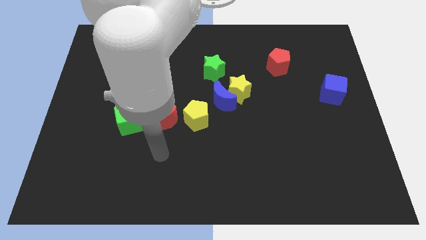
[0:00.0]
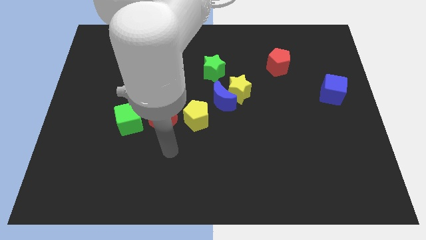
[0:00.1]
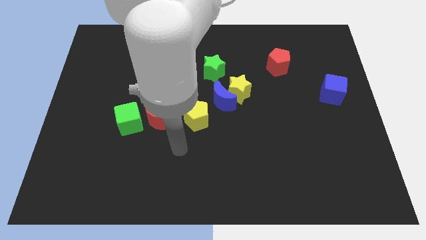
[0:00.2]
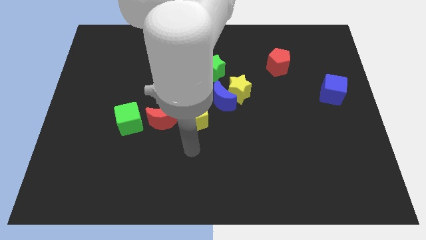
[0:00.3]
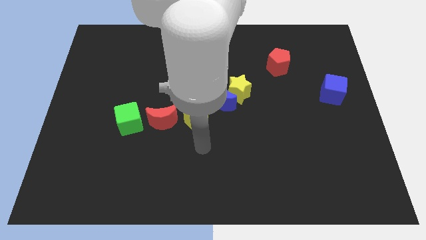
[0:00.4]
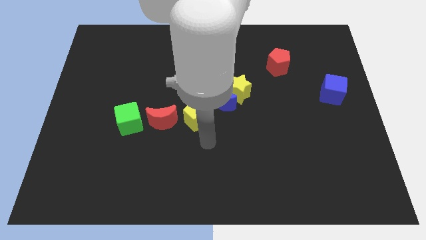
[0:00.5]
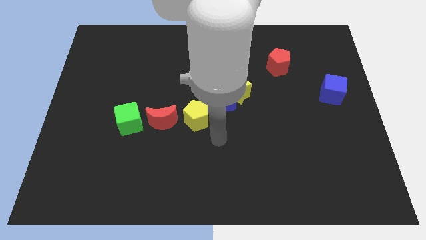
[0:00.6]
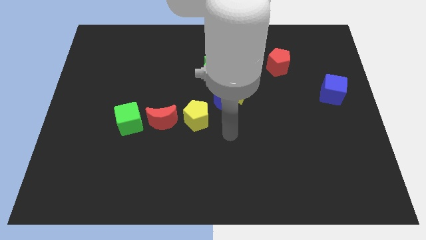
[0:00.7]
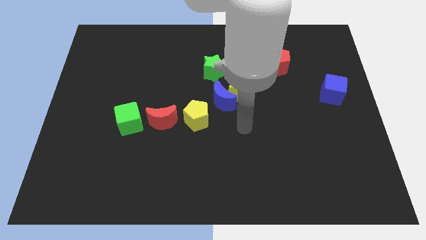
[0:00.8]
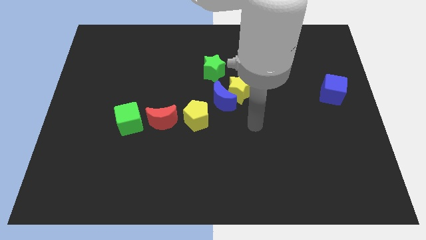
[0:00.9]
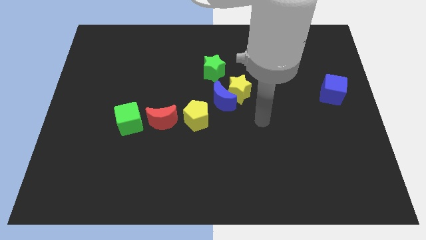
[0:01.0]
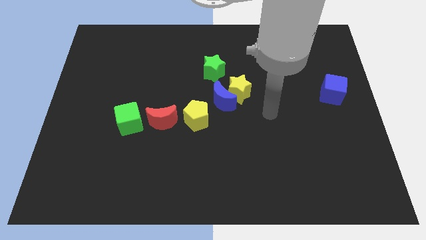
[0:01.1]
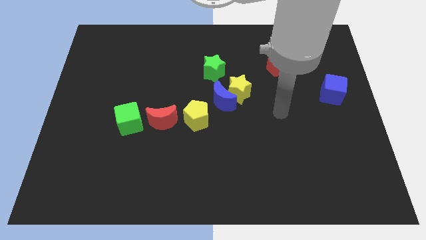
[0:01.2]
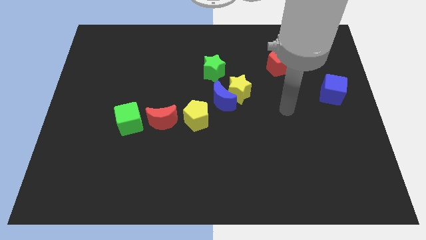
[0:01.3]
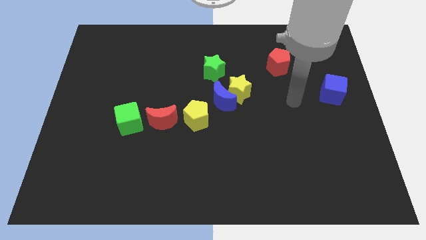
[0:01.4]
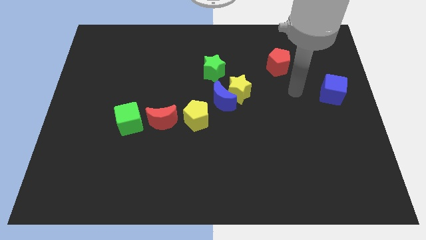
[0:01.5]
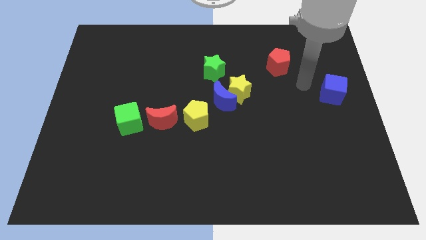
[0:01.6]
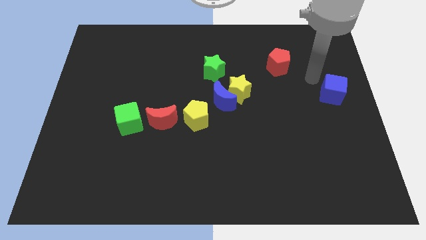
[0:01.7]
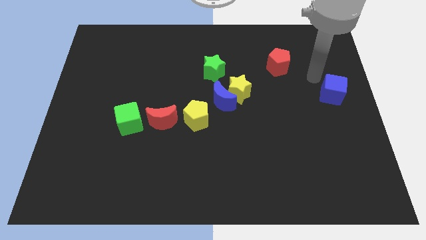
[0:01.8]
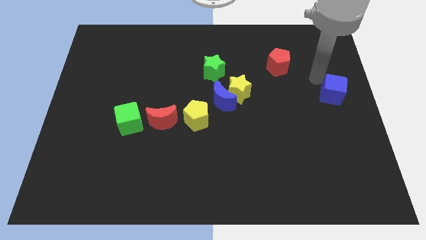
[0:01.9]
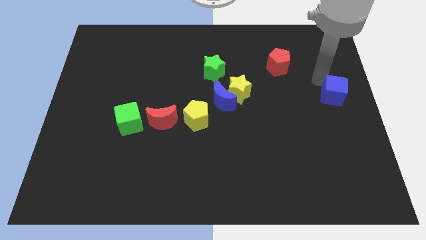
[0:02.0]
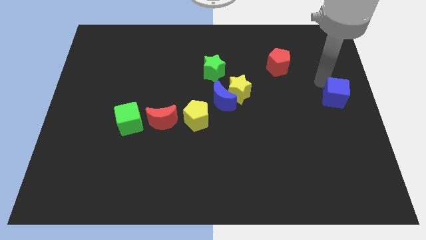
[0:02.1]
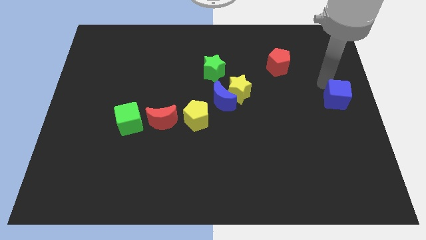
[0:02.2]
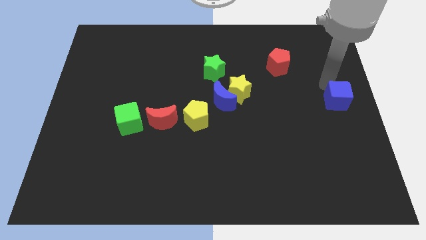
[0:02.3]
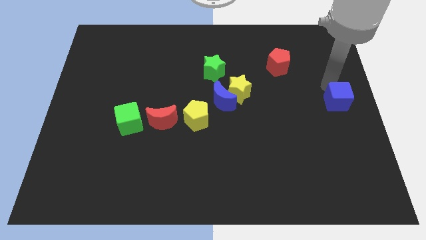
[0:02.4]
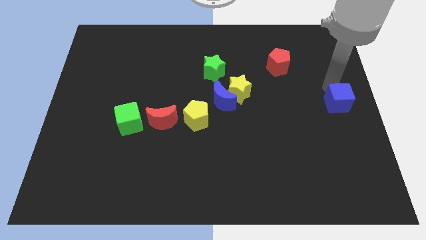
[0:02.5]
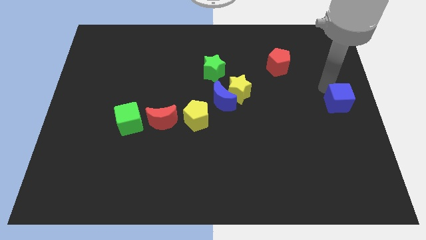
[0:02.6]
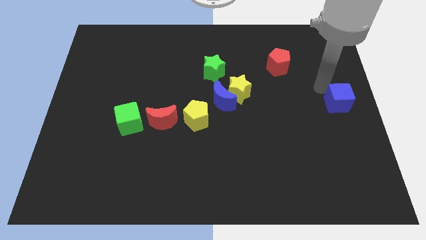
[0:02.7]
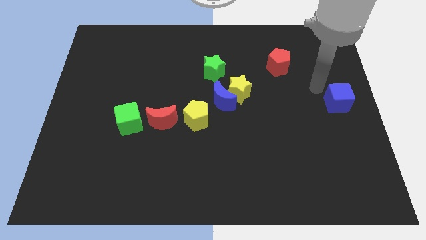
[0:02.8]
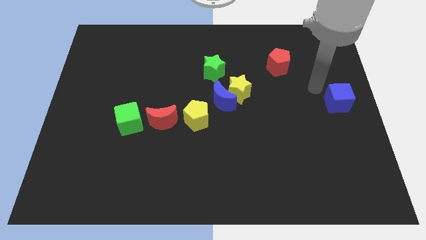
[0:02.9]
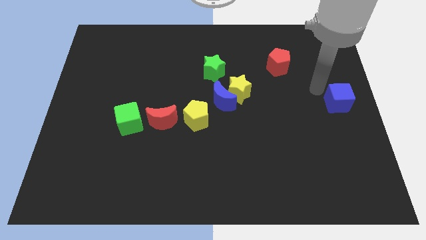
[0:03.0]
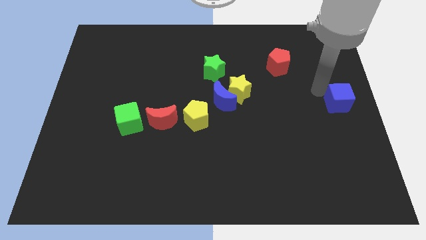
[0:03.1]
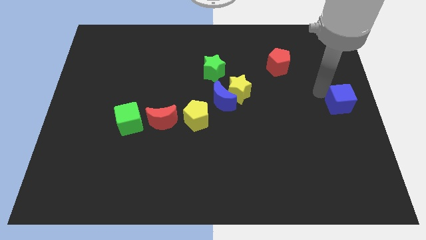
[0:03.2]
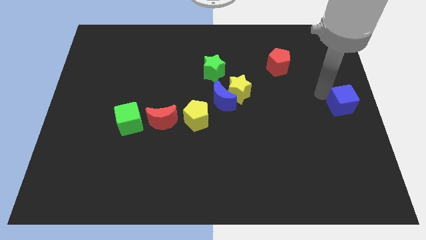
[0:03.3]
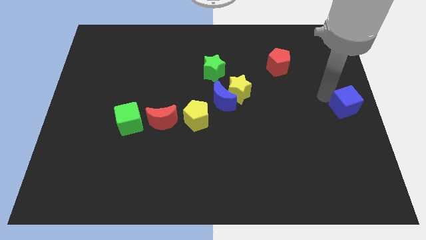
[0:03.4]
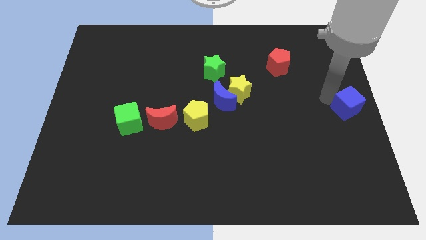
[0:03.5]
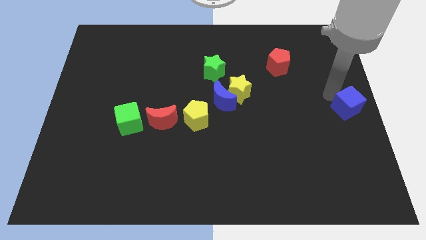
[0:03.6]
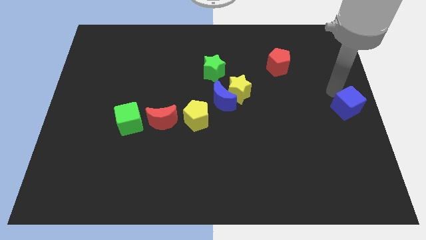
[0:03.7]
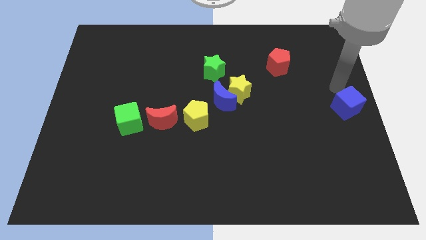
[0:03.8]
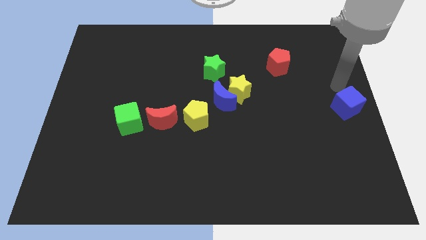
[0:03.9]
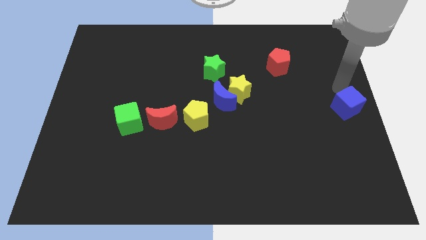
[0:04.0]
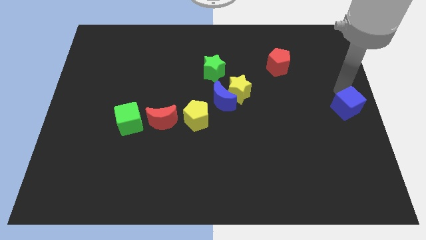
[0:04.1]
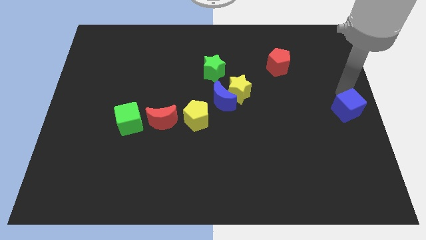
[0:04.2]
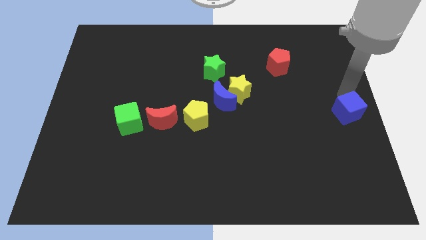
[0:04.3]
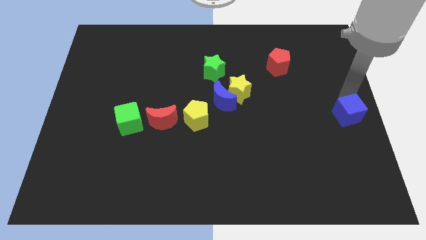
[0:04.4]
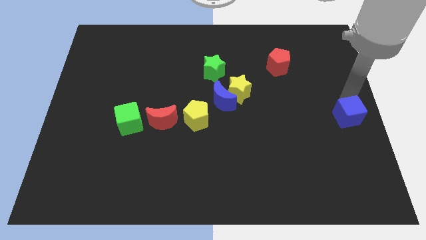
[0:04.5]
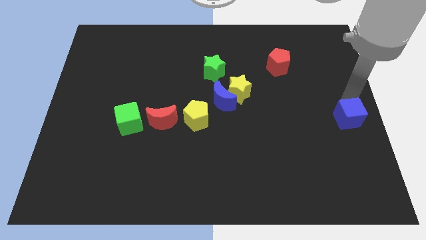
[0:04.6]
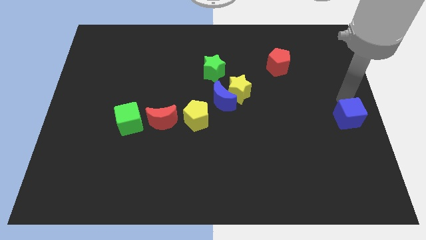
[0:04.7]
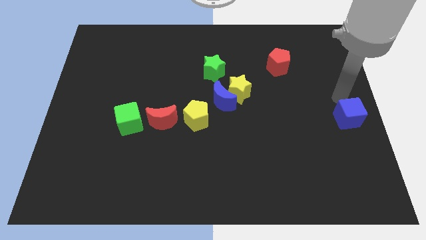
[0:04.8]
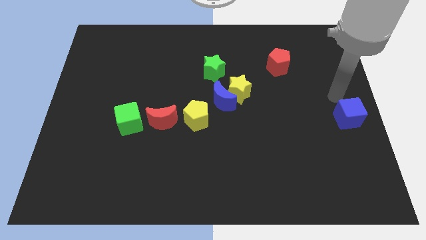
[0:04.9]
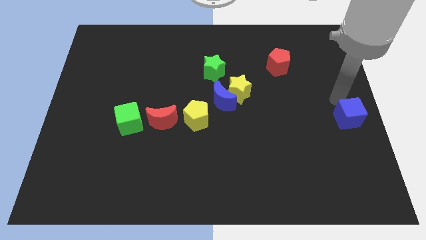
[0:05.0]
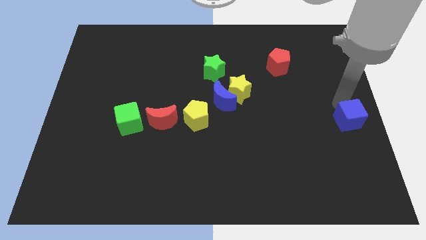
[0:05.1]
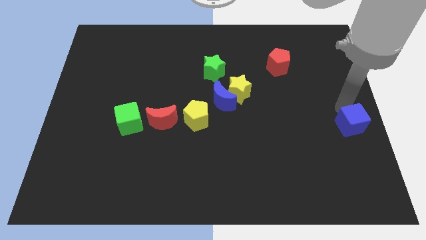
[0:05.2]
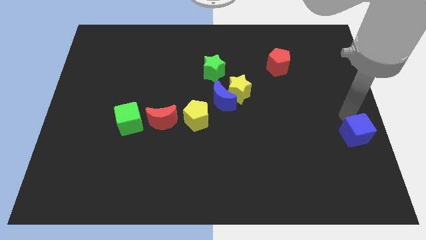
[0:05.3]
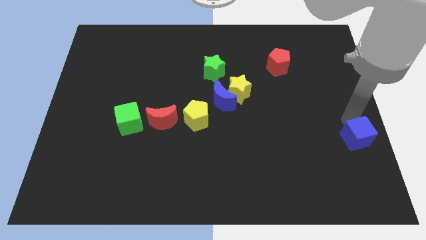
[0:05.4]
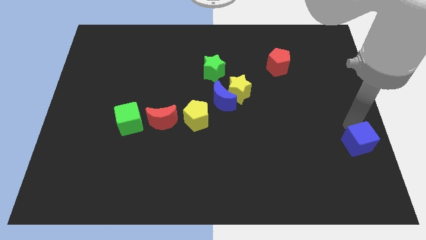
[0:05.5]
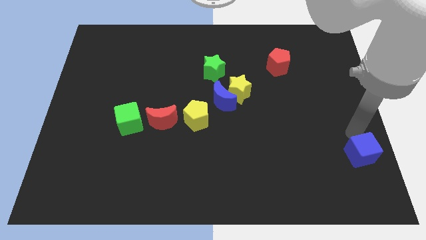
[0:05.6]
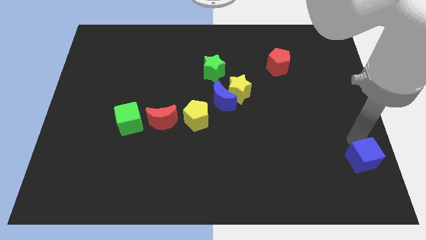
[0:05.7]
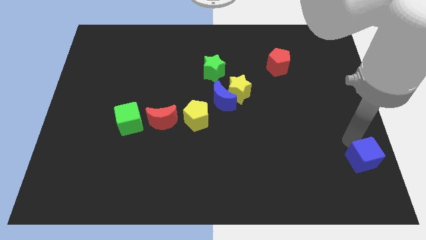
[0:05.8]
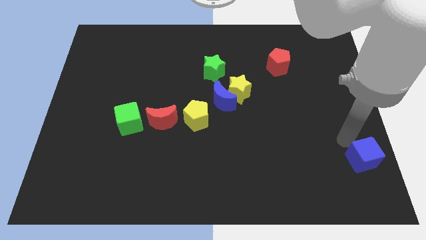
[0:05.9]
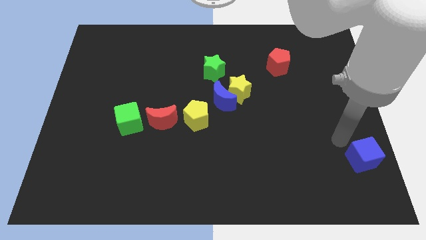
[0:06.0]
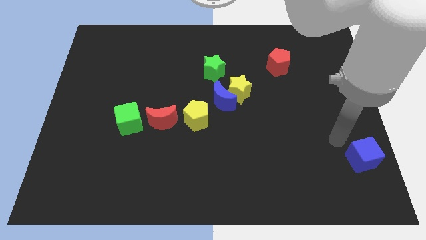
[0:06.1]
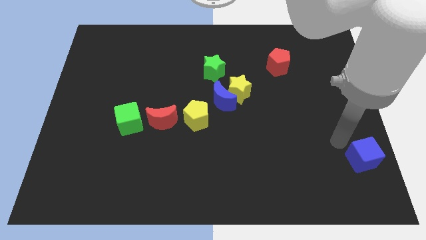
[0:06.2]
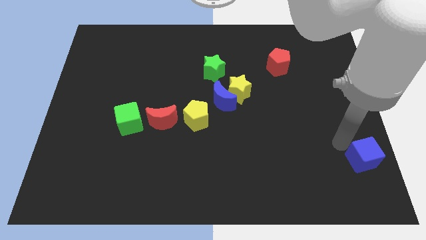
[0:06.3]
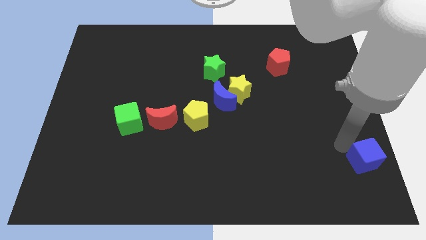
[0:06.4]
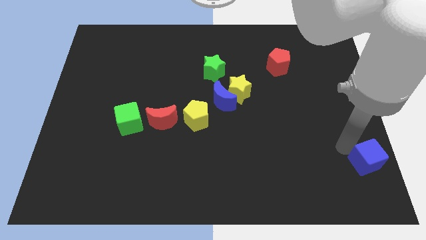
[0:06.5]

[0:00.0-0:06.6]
push the blue cube to the bottom right
